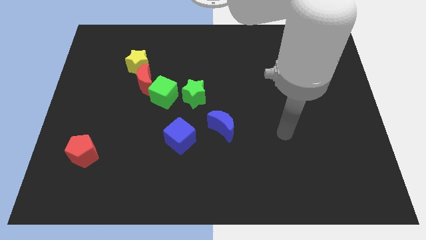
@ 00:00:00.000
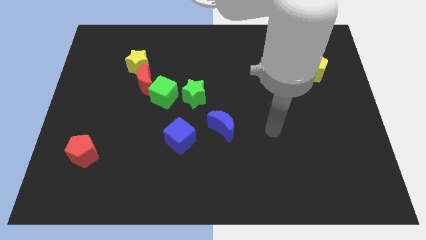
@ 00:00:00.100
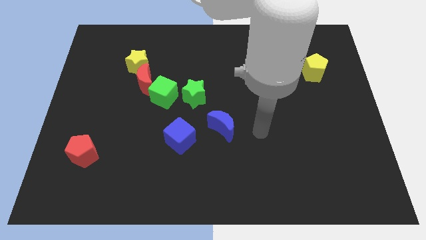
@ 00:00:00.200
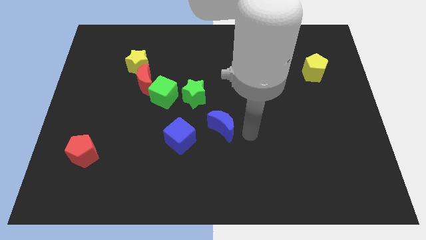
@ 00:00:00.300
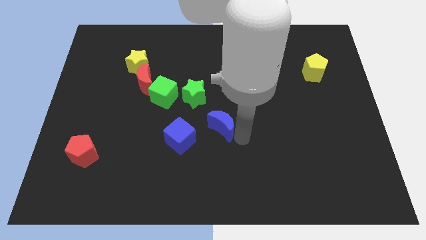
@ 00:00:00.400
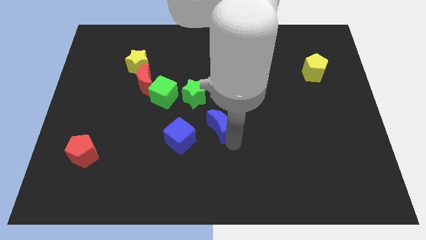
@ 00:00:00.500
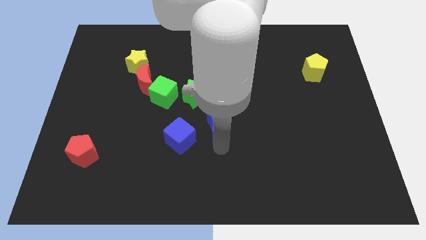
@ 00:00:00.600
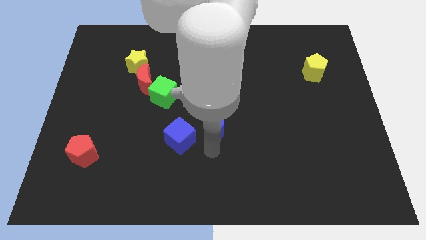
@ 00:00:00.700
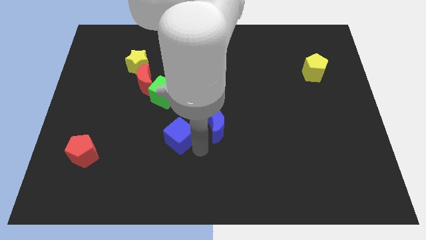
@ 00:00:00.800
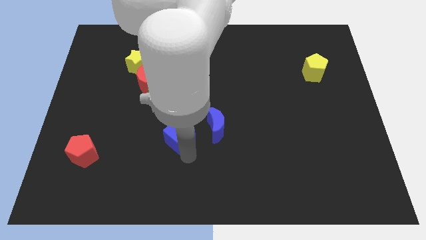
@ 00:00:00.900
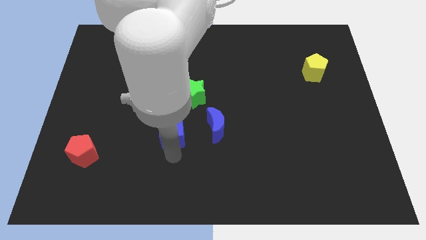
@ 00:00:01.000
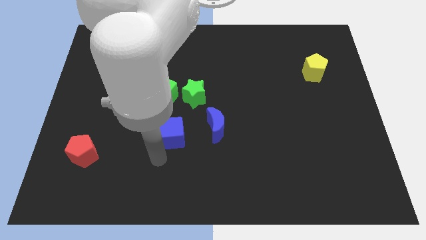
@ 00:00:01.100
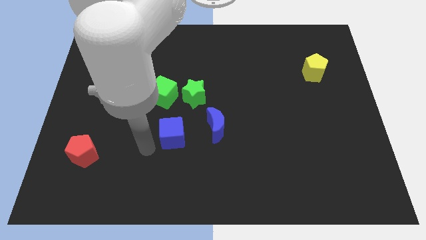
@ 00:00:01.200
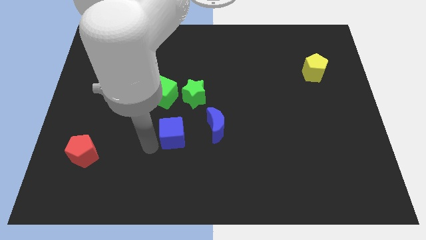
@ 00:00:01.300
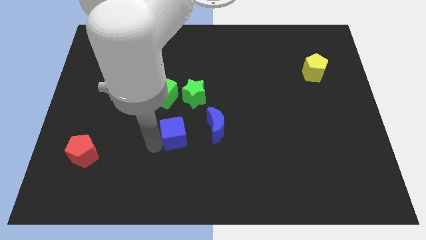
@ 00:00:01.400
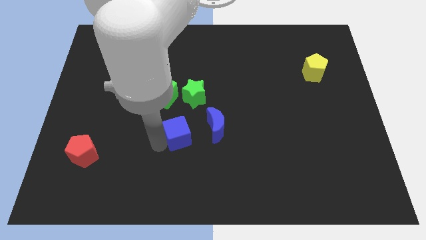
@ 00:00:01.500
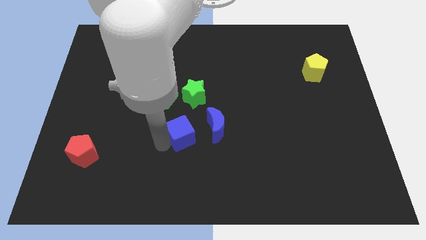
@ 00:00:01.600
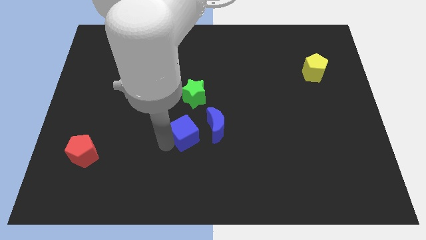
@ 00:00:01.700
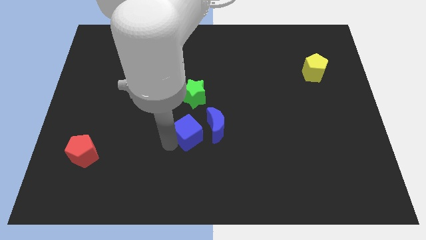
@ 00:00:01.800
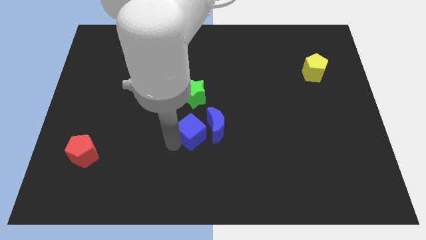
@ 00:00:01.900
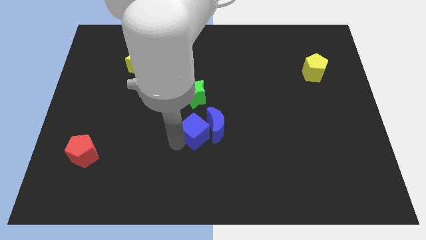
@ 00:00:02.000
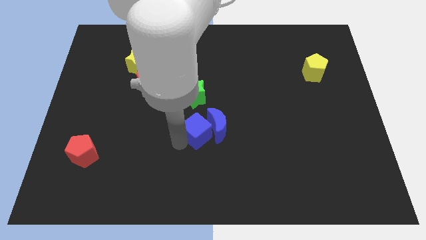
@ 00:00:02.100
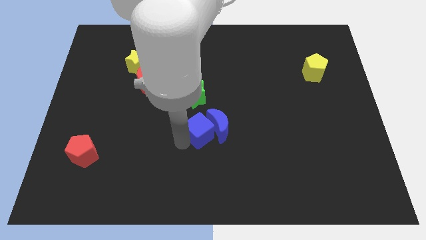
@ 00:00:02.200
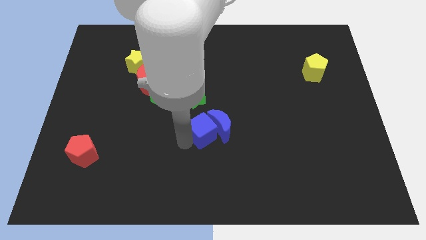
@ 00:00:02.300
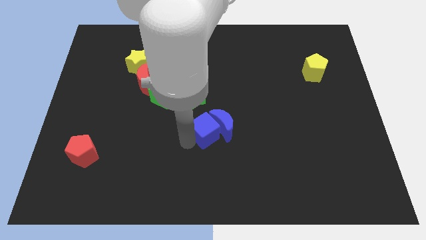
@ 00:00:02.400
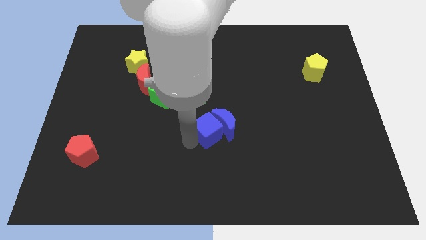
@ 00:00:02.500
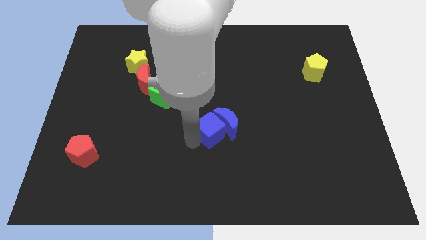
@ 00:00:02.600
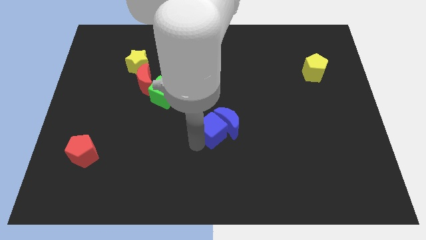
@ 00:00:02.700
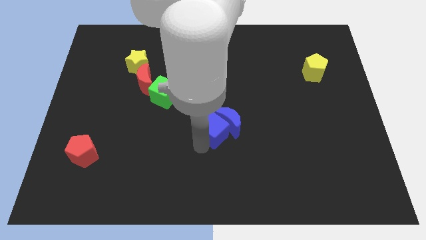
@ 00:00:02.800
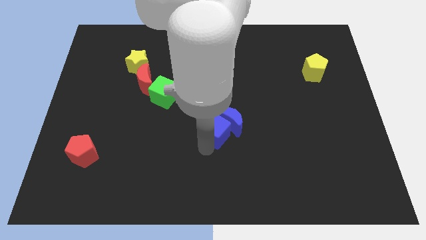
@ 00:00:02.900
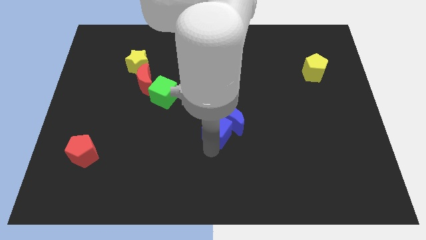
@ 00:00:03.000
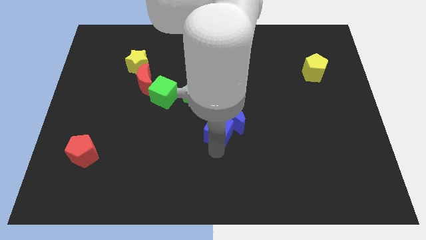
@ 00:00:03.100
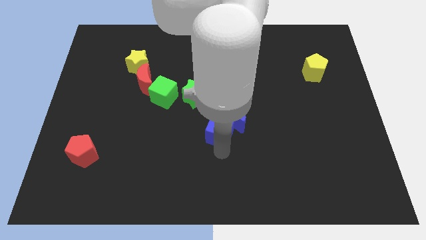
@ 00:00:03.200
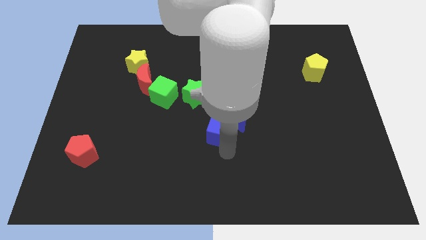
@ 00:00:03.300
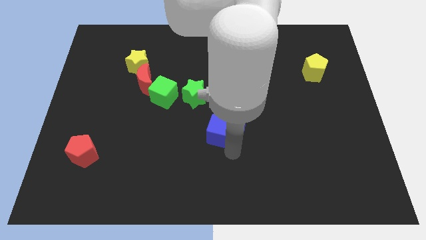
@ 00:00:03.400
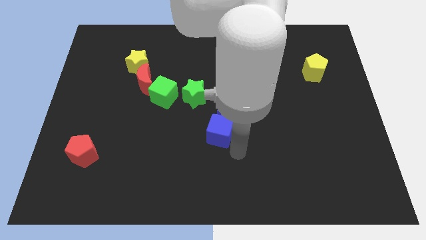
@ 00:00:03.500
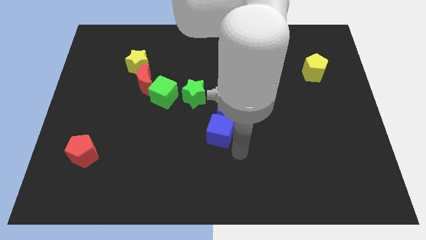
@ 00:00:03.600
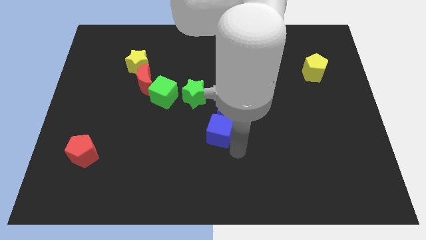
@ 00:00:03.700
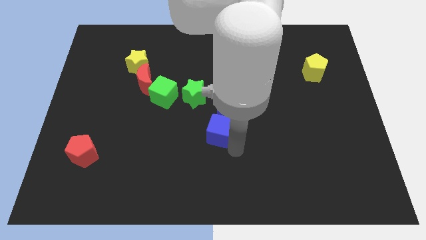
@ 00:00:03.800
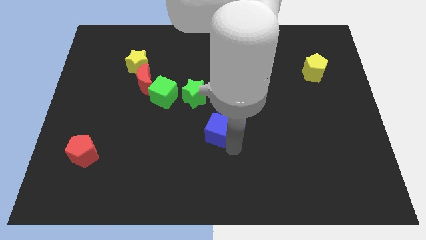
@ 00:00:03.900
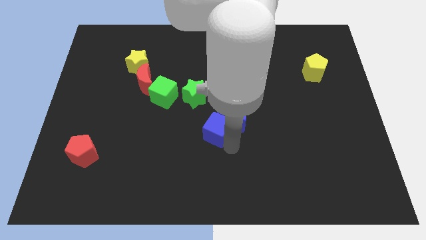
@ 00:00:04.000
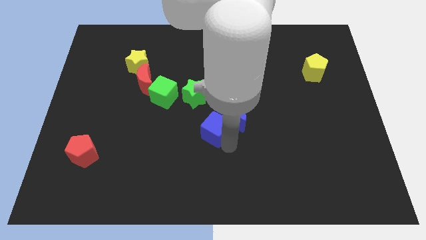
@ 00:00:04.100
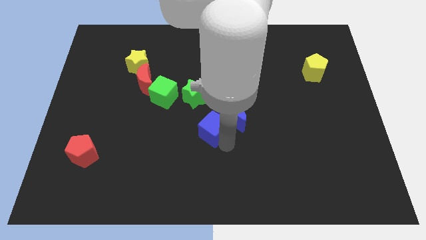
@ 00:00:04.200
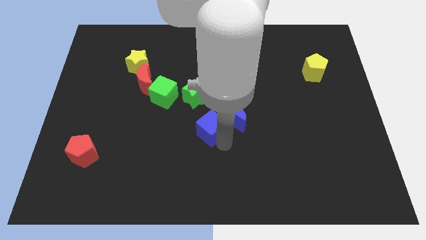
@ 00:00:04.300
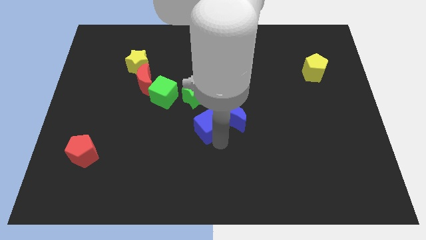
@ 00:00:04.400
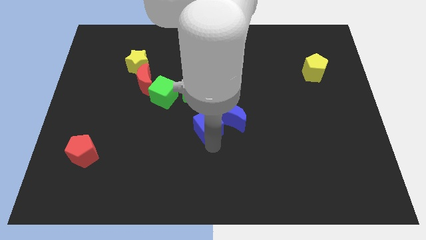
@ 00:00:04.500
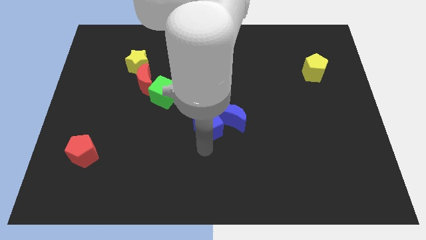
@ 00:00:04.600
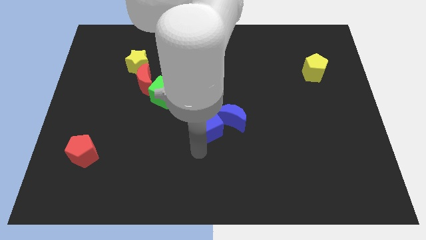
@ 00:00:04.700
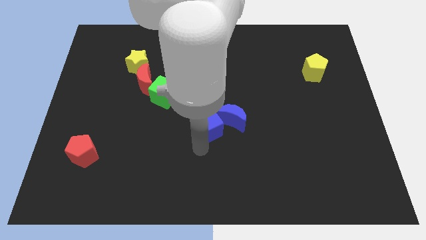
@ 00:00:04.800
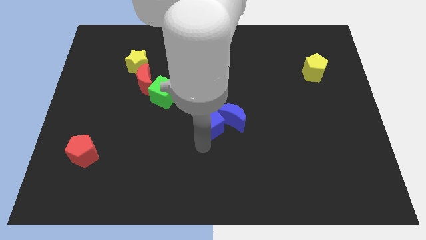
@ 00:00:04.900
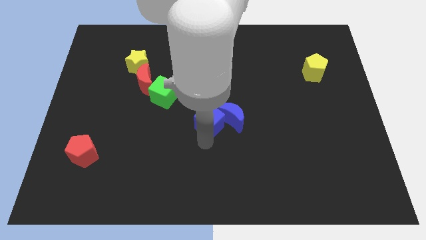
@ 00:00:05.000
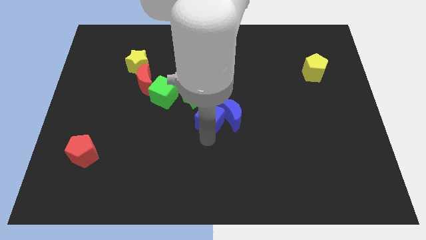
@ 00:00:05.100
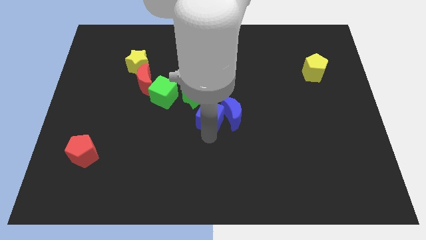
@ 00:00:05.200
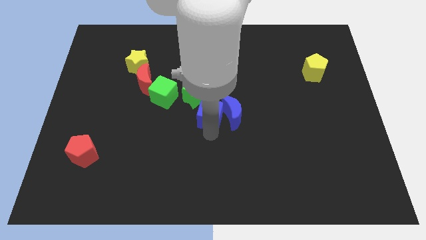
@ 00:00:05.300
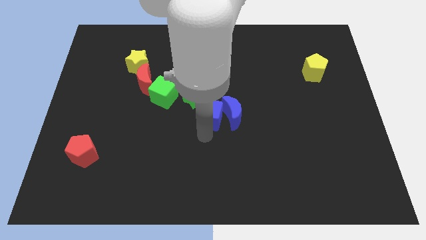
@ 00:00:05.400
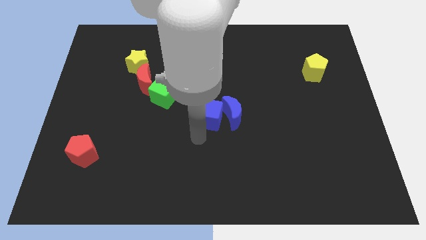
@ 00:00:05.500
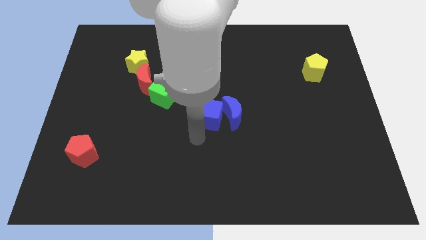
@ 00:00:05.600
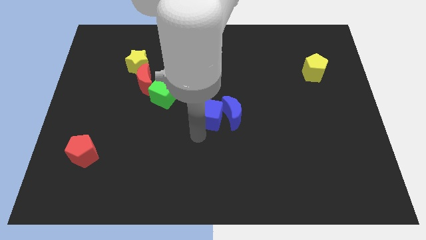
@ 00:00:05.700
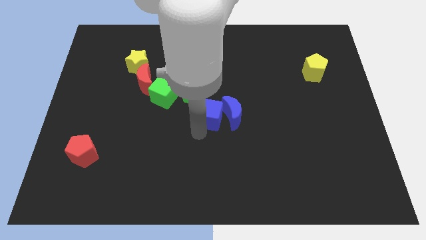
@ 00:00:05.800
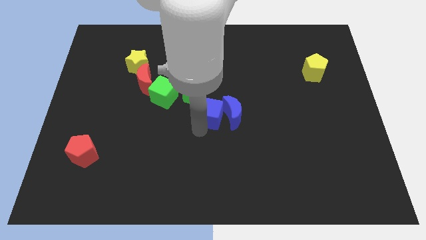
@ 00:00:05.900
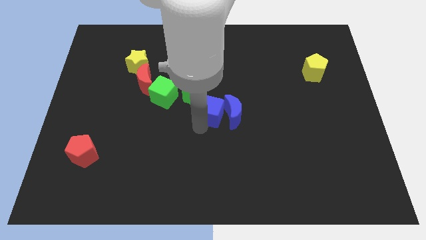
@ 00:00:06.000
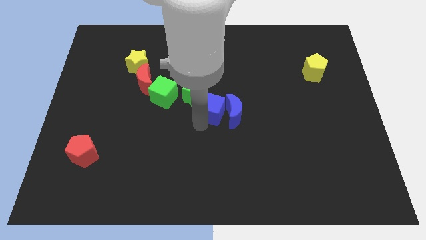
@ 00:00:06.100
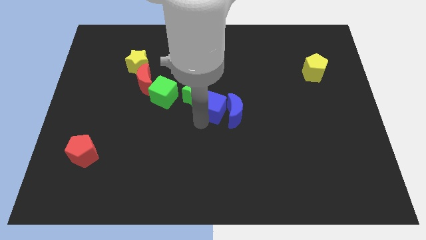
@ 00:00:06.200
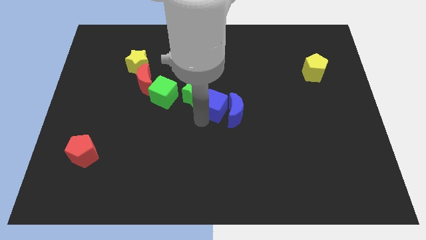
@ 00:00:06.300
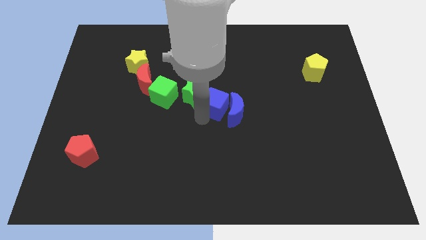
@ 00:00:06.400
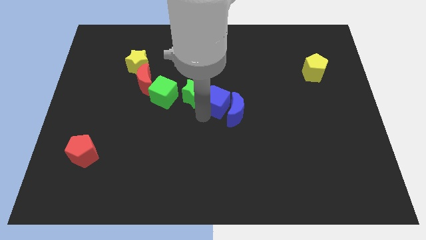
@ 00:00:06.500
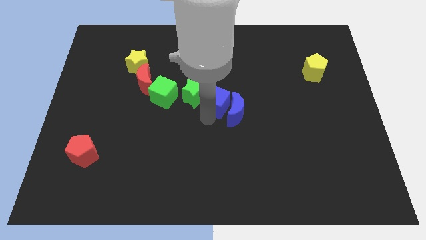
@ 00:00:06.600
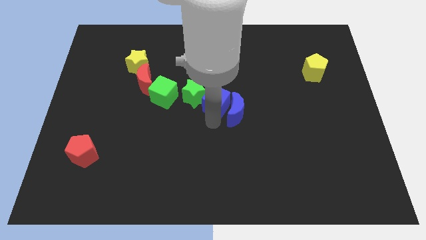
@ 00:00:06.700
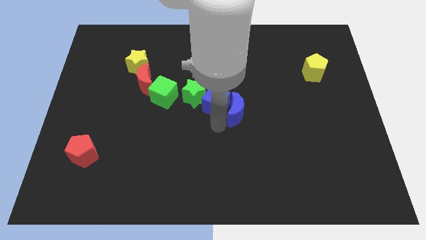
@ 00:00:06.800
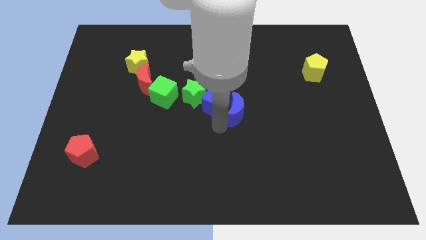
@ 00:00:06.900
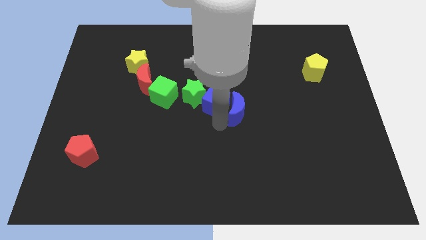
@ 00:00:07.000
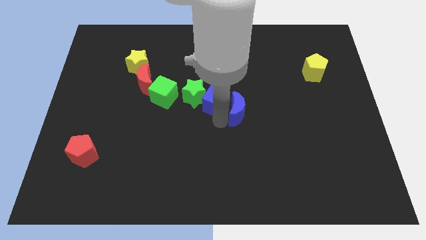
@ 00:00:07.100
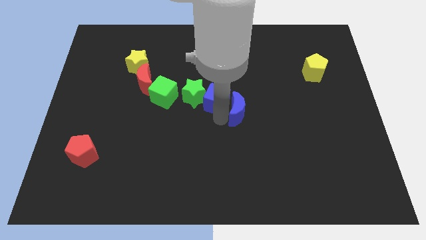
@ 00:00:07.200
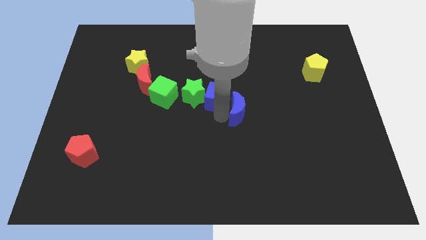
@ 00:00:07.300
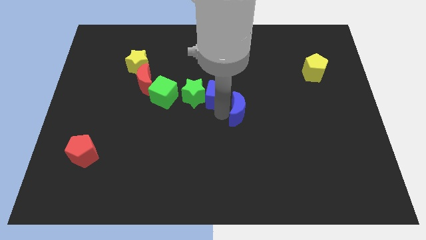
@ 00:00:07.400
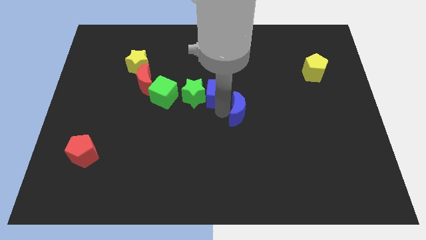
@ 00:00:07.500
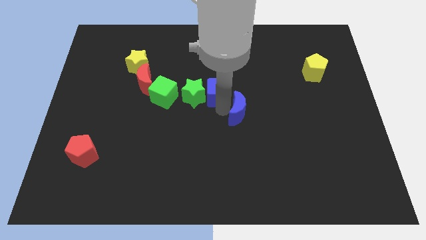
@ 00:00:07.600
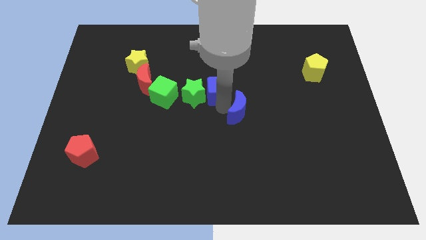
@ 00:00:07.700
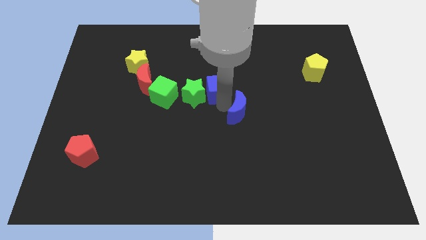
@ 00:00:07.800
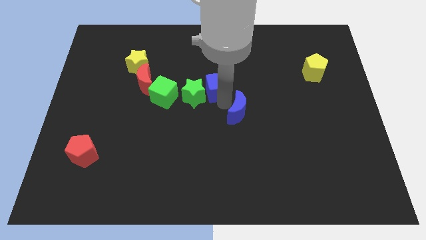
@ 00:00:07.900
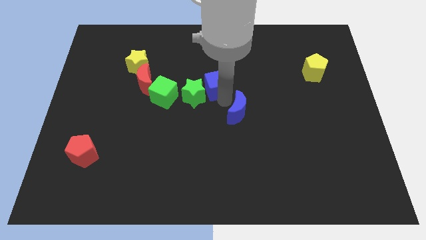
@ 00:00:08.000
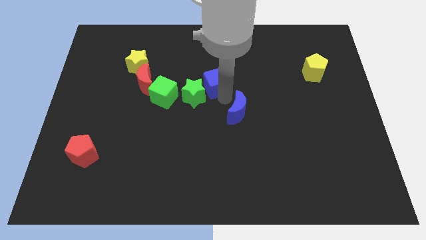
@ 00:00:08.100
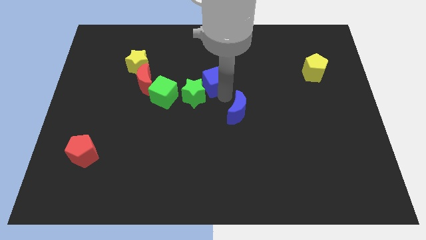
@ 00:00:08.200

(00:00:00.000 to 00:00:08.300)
slide the blue cube to the top side of the green star
